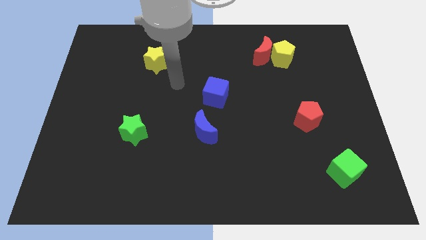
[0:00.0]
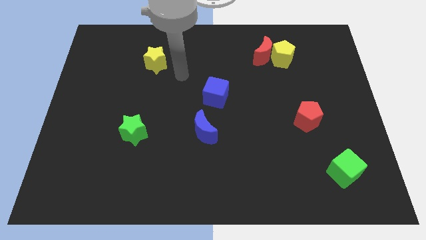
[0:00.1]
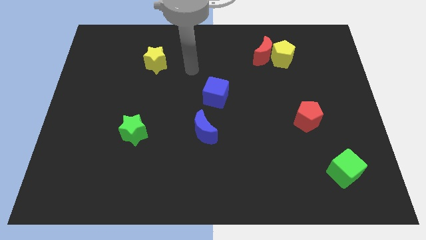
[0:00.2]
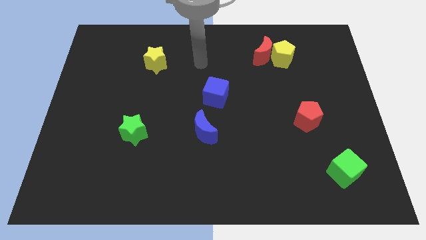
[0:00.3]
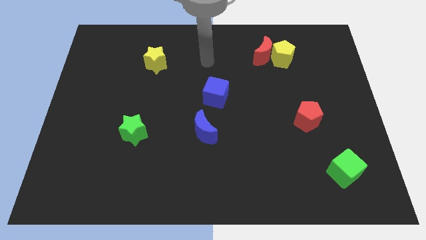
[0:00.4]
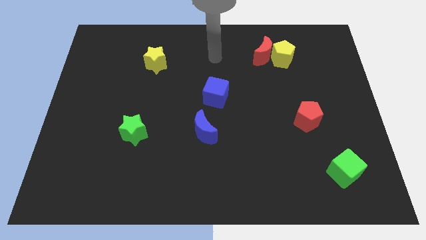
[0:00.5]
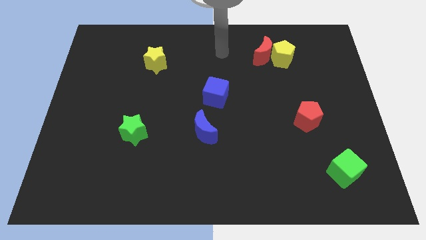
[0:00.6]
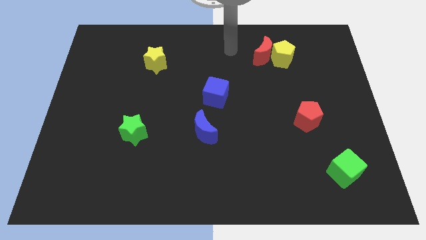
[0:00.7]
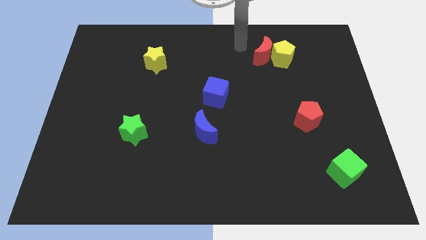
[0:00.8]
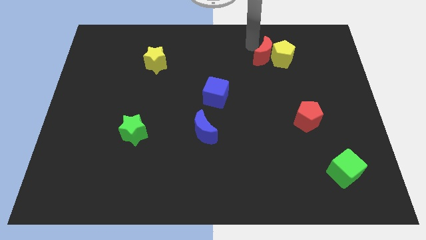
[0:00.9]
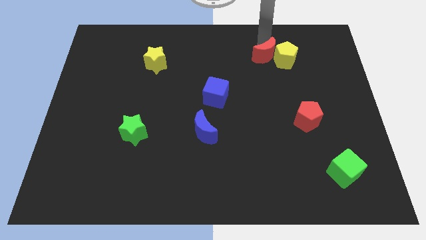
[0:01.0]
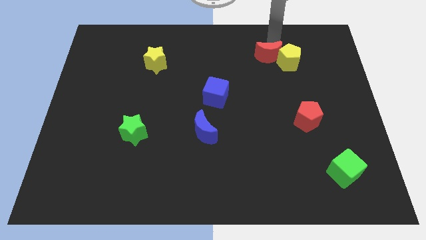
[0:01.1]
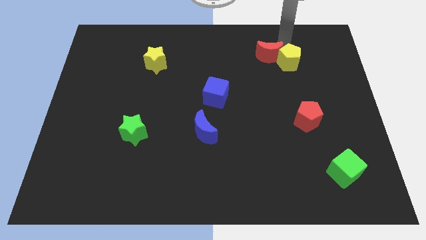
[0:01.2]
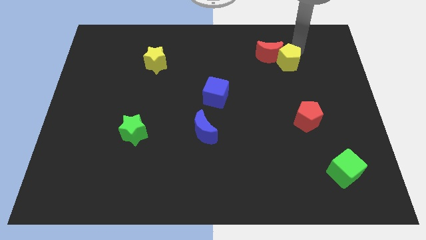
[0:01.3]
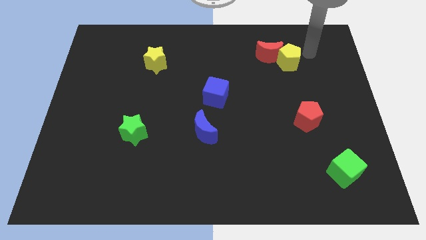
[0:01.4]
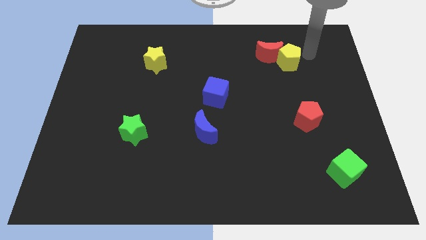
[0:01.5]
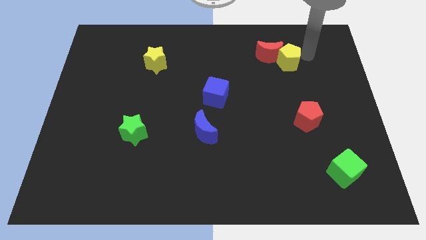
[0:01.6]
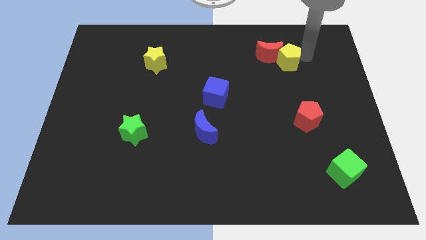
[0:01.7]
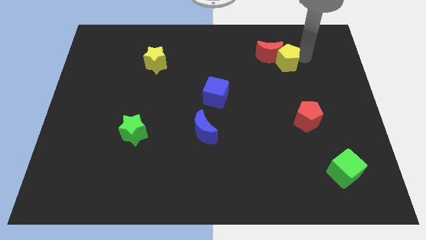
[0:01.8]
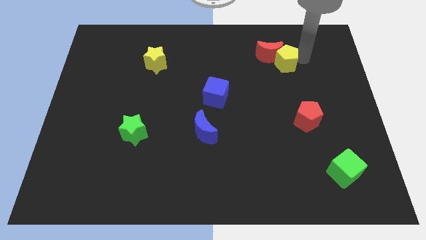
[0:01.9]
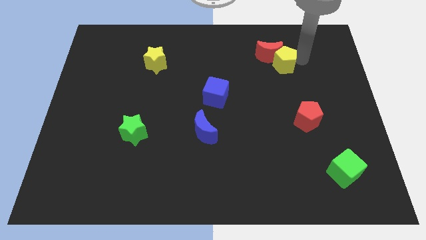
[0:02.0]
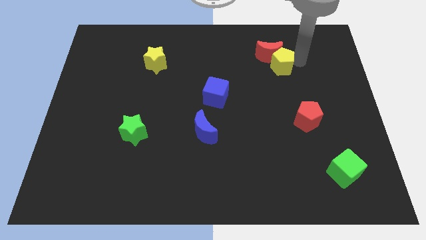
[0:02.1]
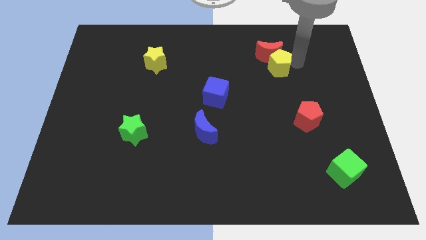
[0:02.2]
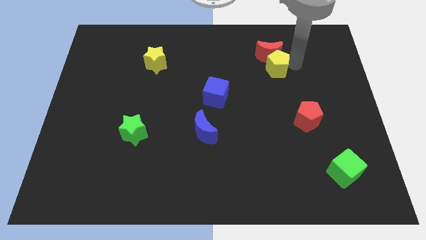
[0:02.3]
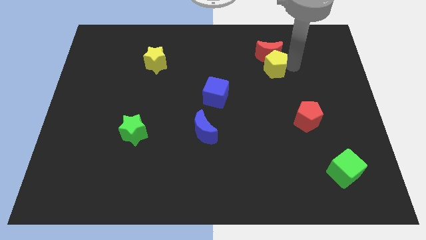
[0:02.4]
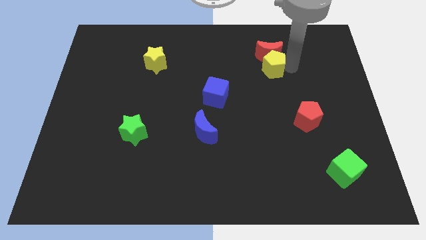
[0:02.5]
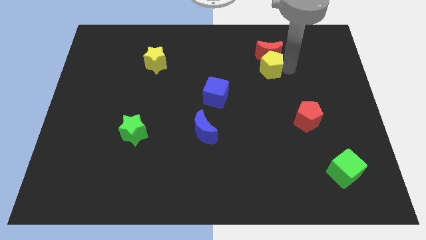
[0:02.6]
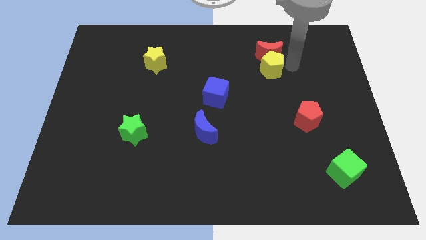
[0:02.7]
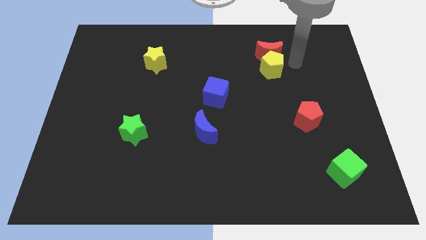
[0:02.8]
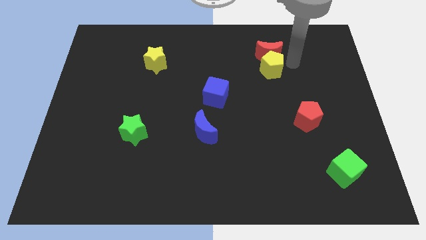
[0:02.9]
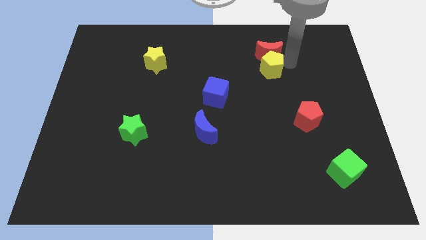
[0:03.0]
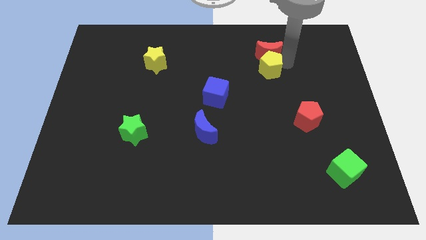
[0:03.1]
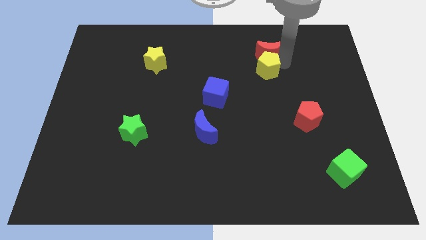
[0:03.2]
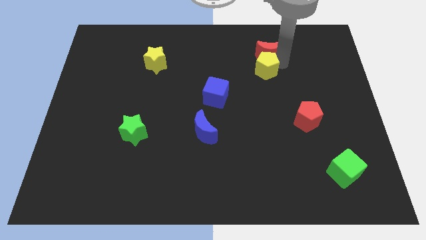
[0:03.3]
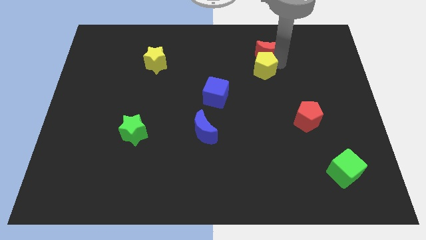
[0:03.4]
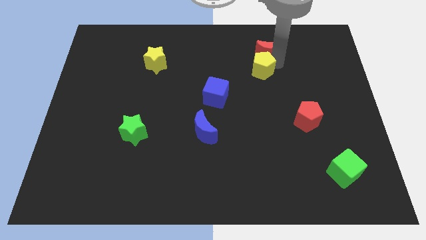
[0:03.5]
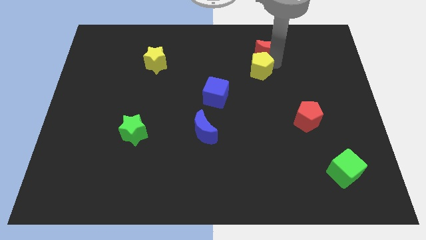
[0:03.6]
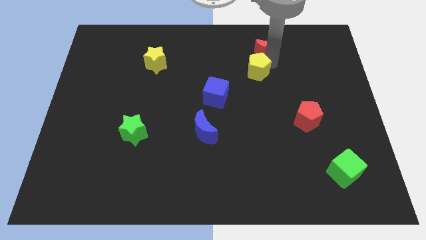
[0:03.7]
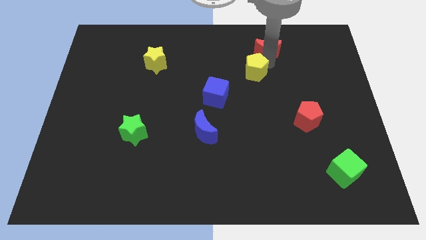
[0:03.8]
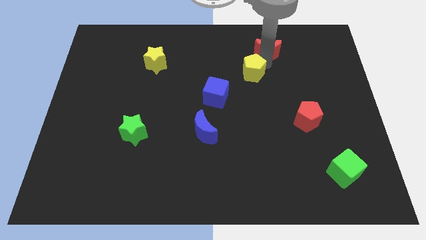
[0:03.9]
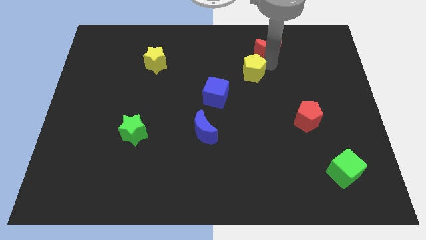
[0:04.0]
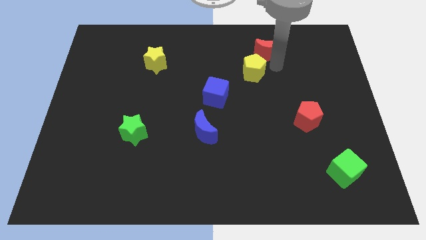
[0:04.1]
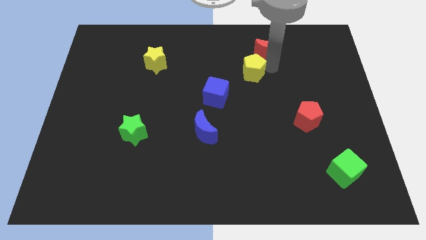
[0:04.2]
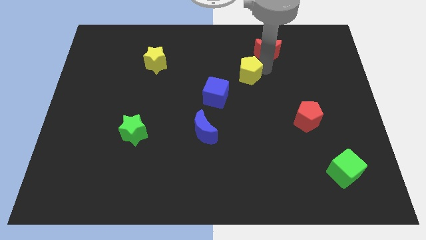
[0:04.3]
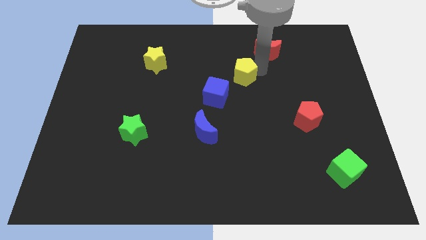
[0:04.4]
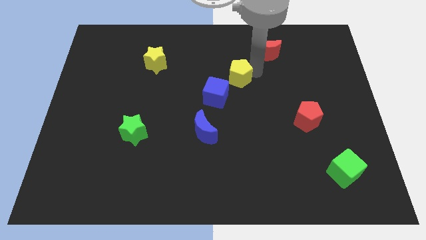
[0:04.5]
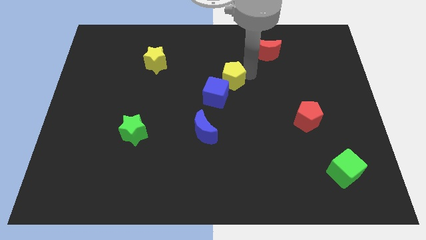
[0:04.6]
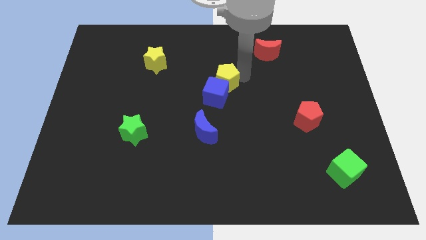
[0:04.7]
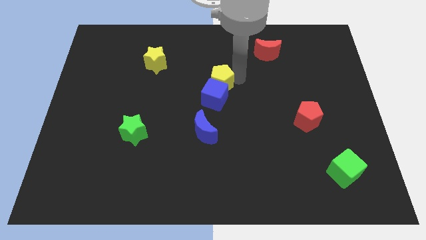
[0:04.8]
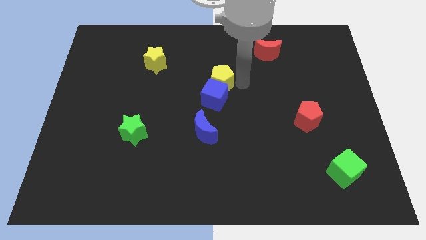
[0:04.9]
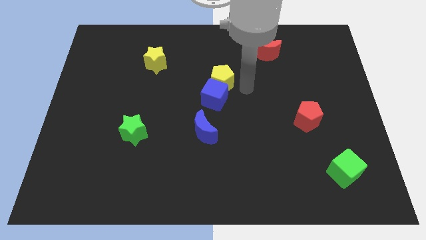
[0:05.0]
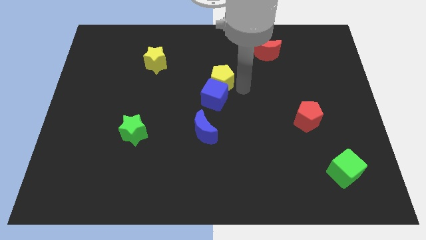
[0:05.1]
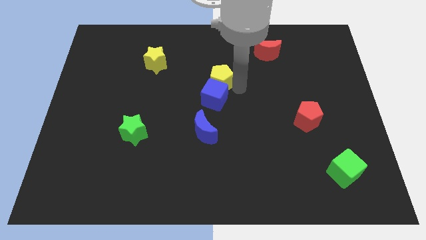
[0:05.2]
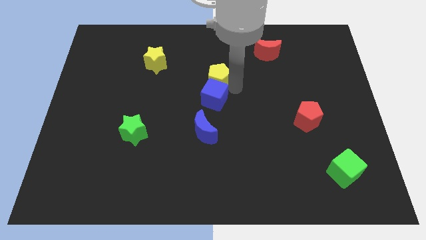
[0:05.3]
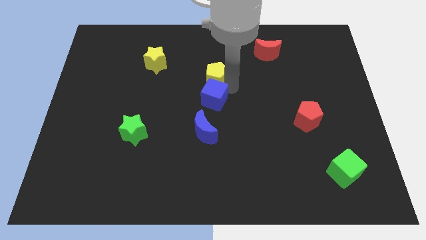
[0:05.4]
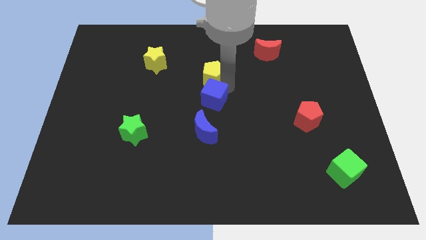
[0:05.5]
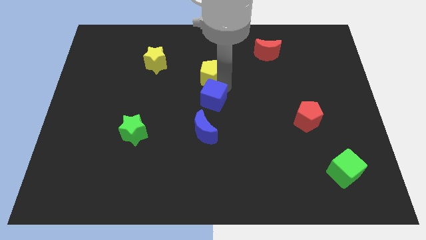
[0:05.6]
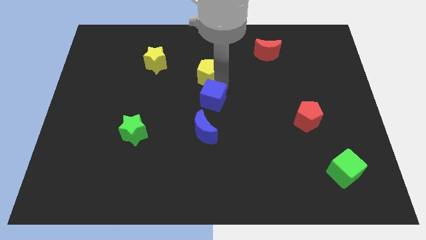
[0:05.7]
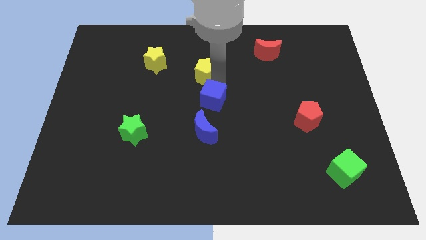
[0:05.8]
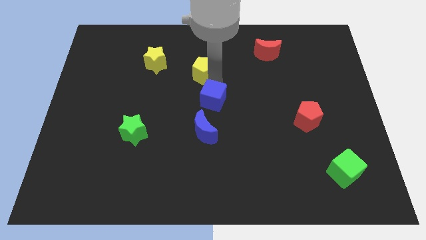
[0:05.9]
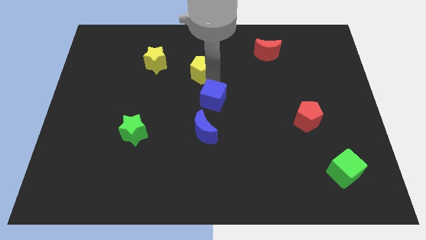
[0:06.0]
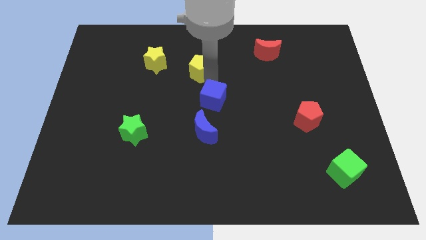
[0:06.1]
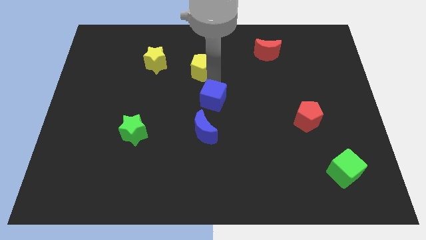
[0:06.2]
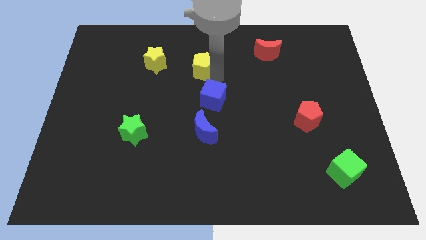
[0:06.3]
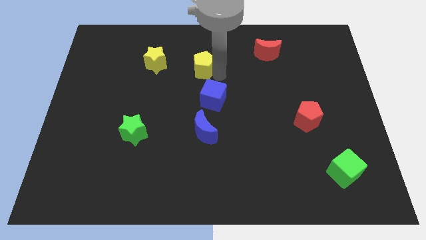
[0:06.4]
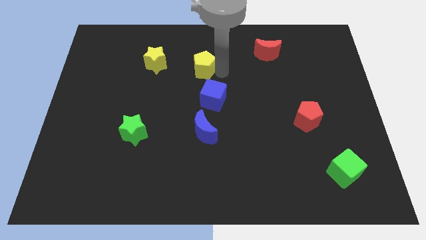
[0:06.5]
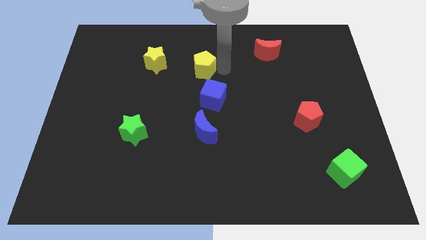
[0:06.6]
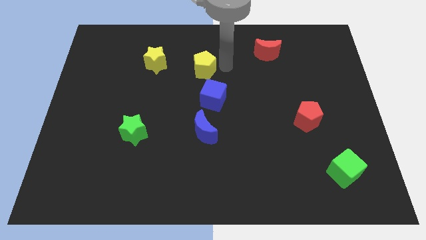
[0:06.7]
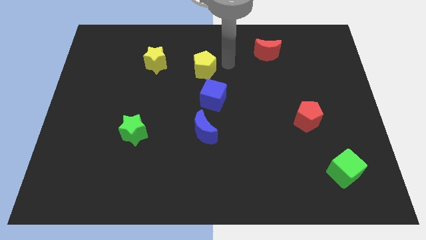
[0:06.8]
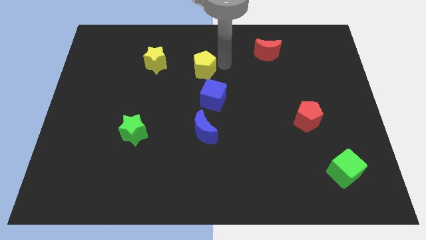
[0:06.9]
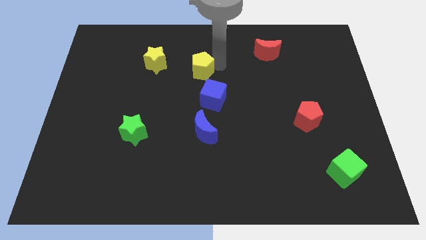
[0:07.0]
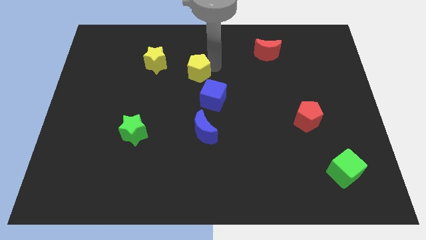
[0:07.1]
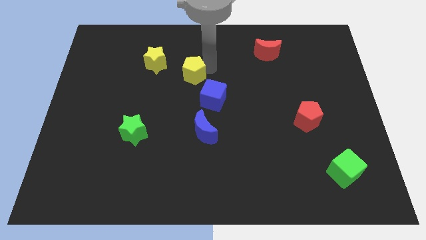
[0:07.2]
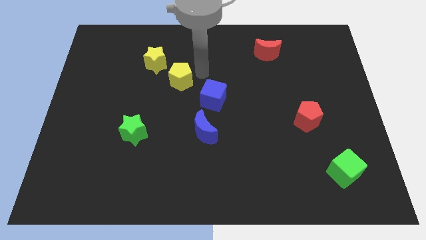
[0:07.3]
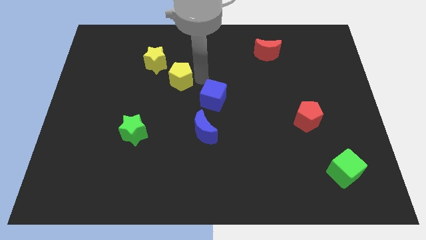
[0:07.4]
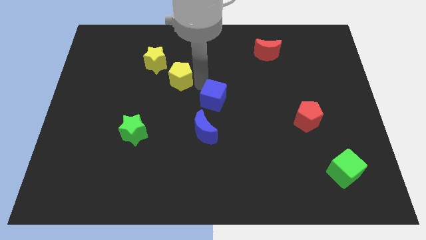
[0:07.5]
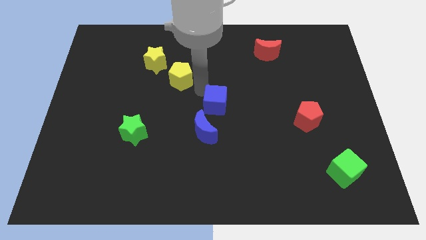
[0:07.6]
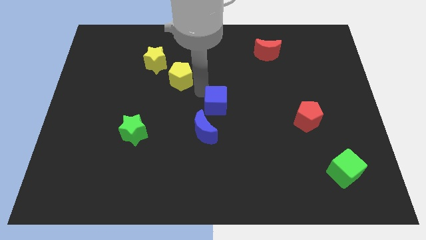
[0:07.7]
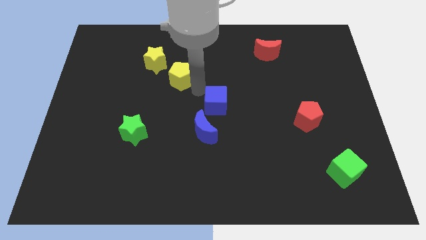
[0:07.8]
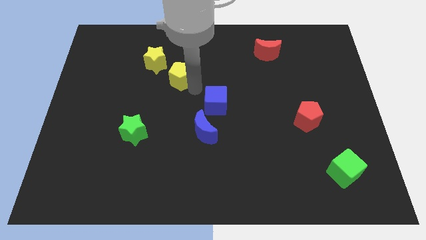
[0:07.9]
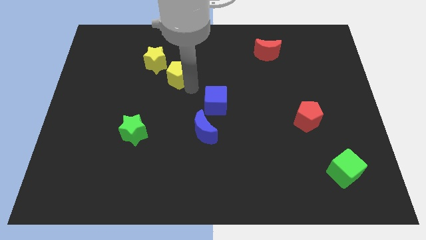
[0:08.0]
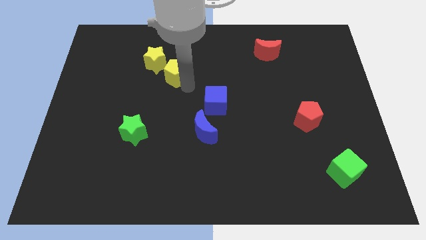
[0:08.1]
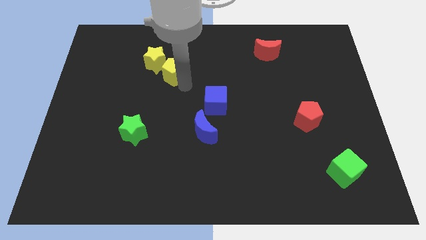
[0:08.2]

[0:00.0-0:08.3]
put the yellow pentagon close to the yellow star
